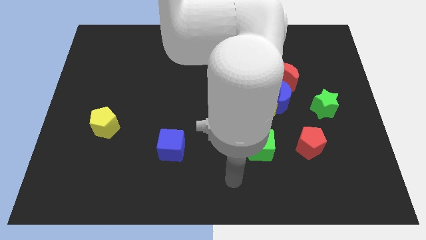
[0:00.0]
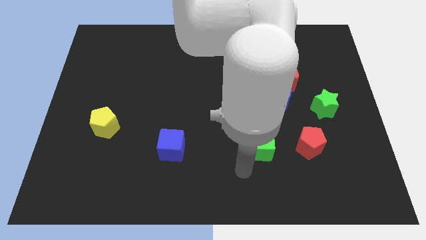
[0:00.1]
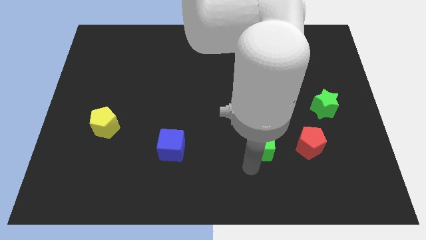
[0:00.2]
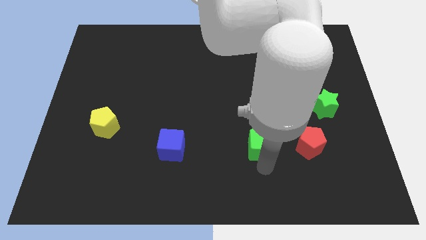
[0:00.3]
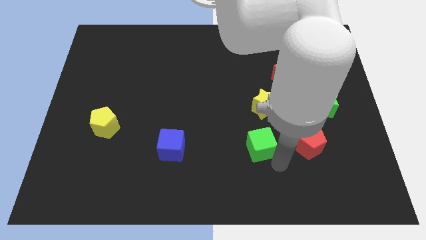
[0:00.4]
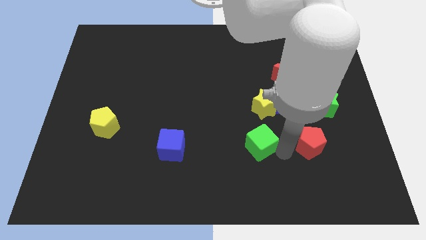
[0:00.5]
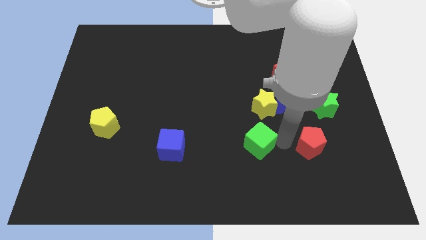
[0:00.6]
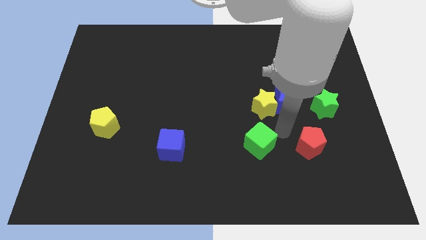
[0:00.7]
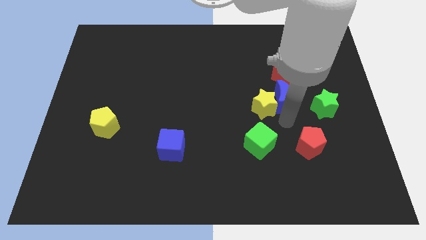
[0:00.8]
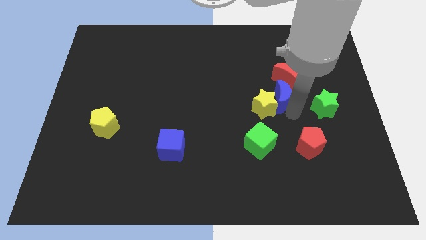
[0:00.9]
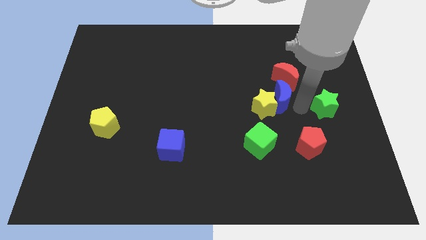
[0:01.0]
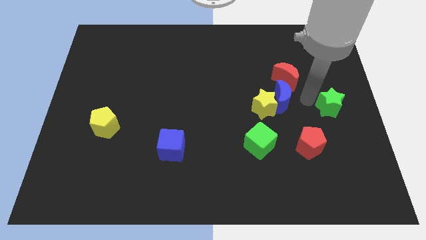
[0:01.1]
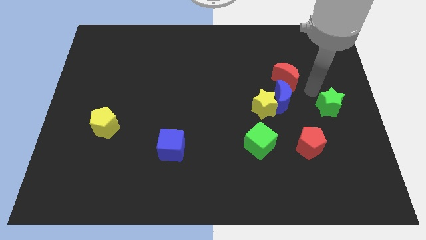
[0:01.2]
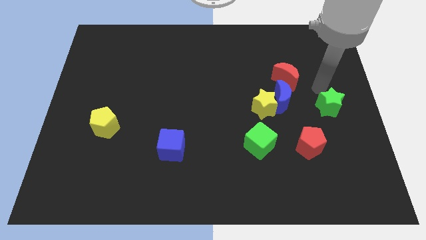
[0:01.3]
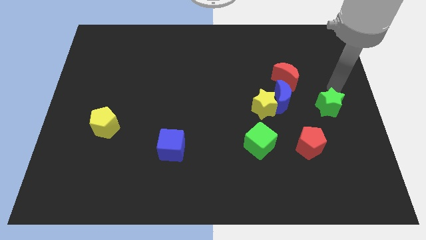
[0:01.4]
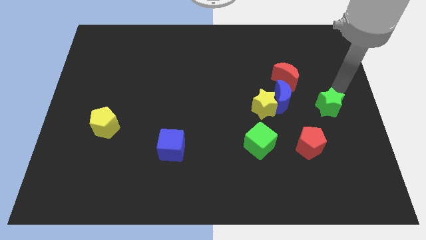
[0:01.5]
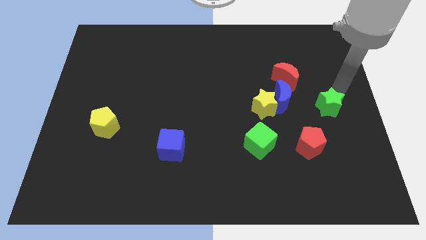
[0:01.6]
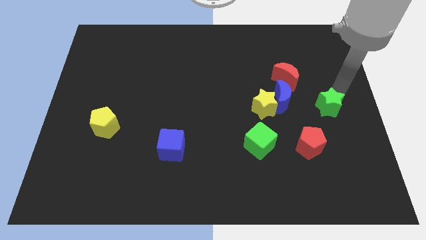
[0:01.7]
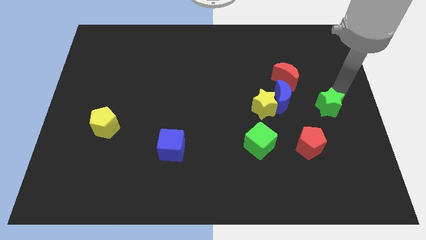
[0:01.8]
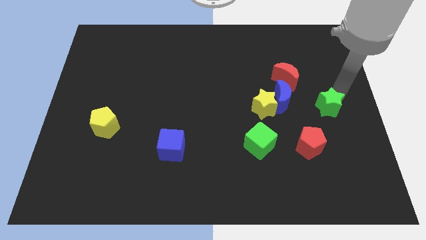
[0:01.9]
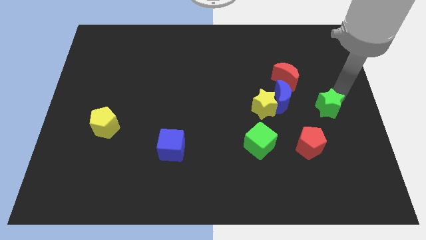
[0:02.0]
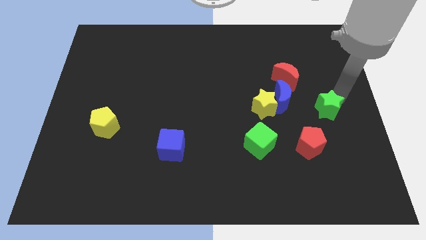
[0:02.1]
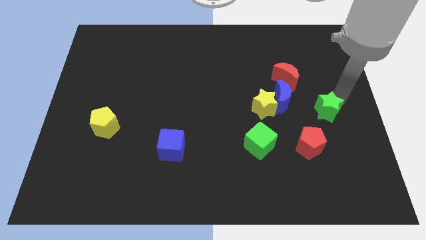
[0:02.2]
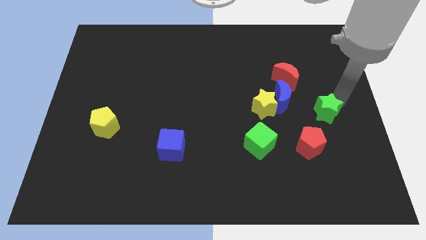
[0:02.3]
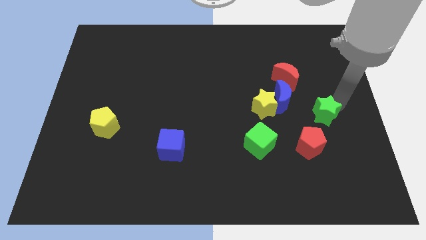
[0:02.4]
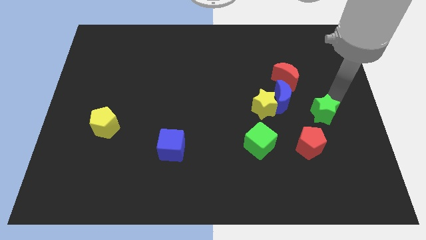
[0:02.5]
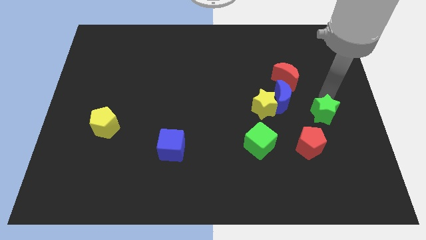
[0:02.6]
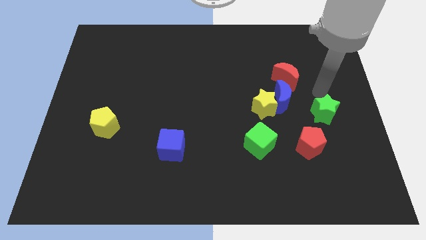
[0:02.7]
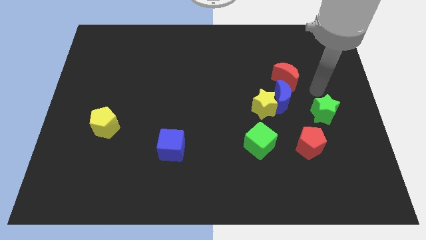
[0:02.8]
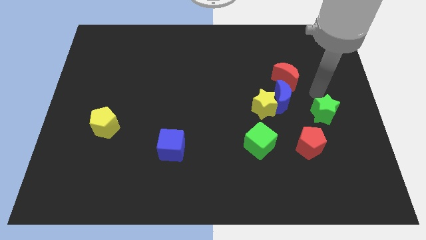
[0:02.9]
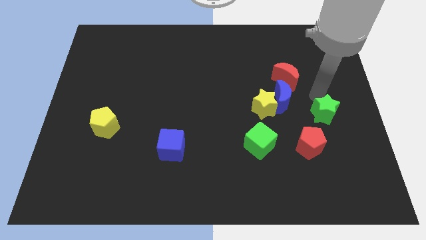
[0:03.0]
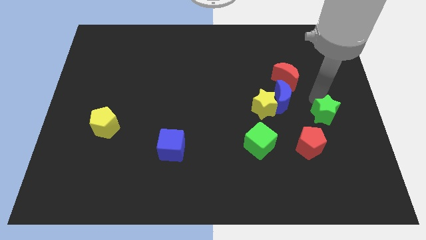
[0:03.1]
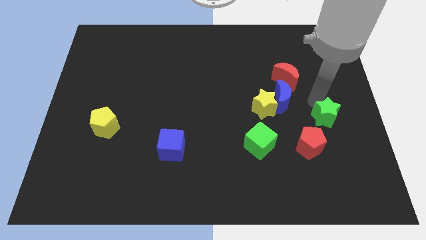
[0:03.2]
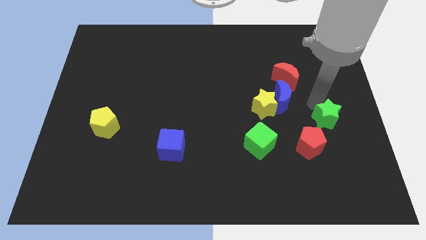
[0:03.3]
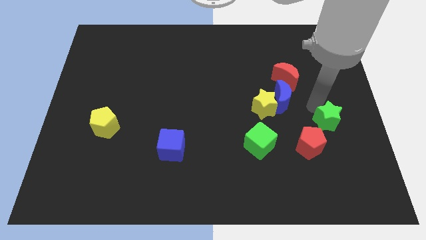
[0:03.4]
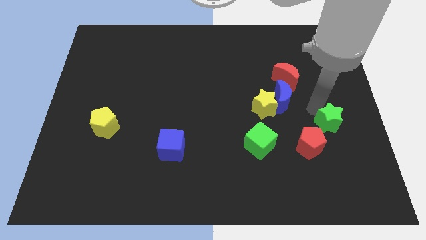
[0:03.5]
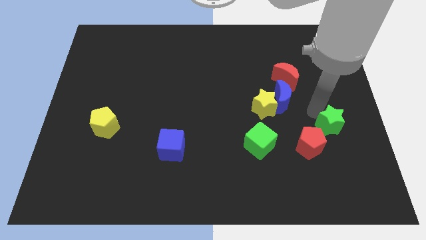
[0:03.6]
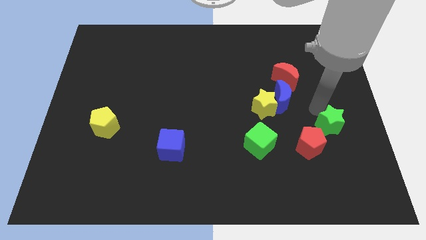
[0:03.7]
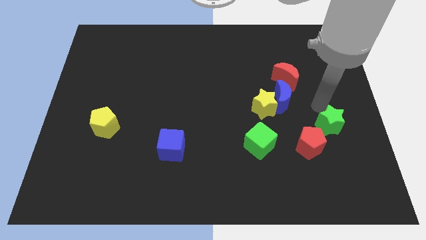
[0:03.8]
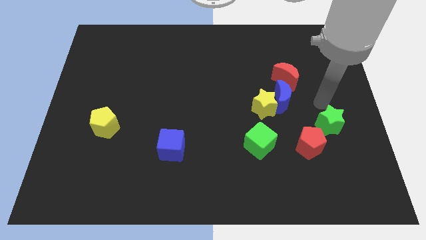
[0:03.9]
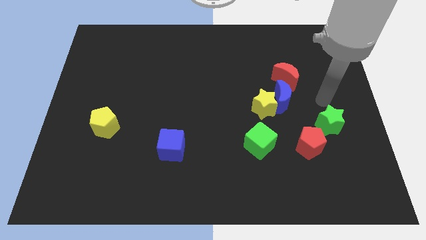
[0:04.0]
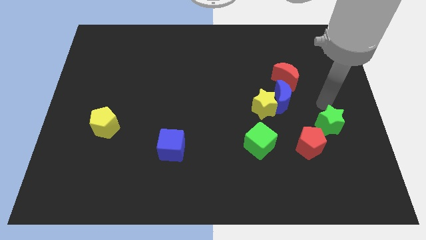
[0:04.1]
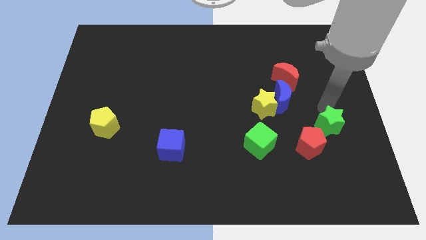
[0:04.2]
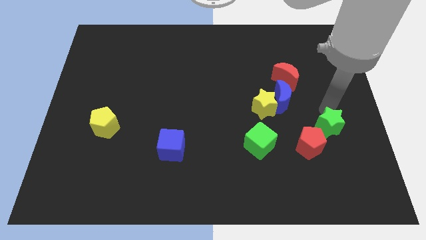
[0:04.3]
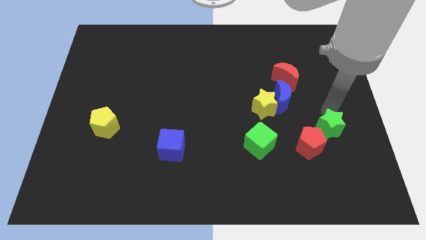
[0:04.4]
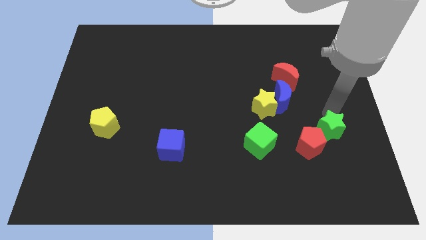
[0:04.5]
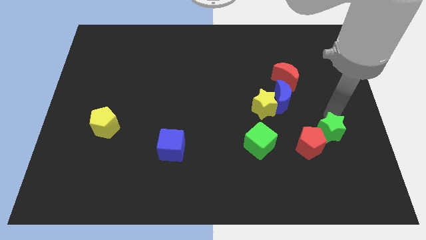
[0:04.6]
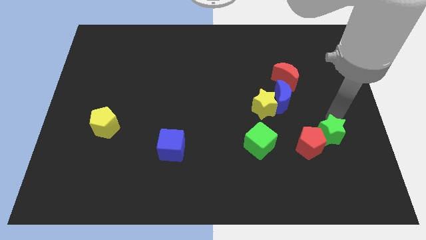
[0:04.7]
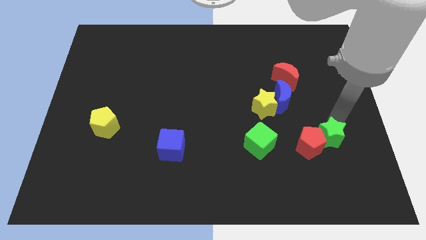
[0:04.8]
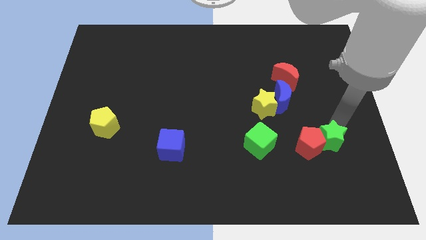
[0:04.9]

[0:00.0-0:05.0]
put the green star to the bottom right of the red pentagon

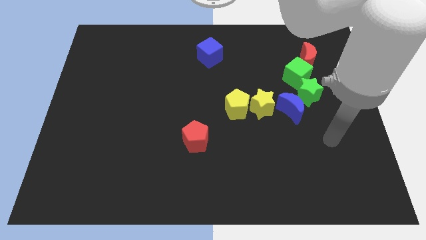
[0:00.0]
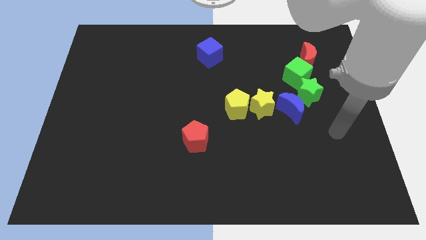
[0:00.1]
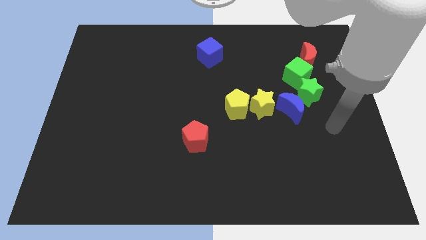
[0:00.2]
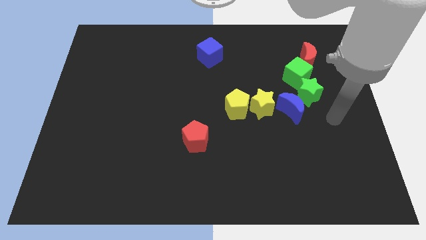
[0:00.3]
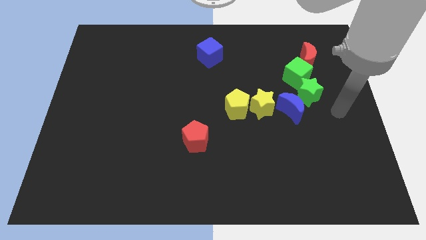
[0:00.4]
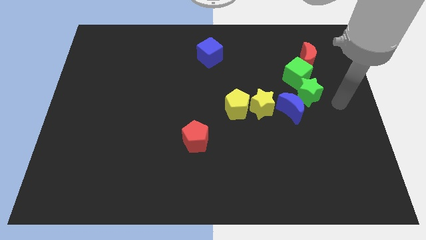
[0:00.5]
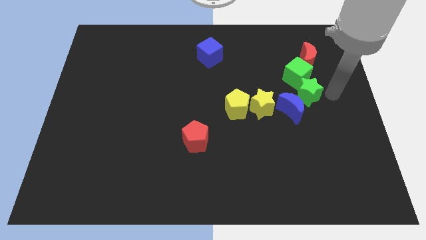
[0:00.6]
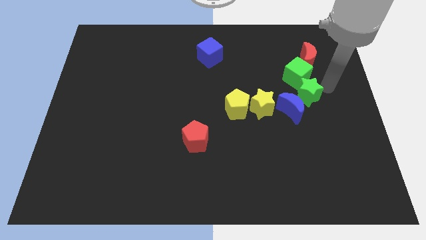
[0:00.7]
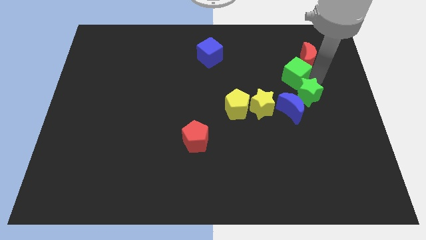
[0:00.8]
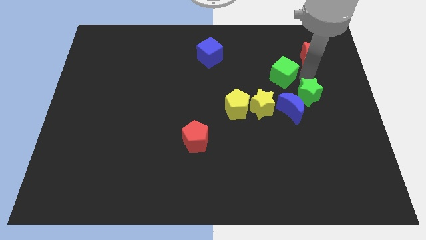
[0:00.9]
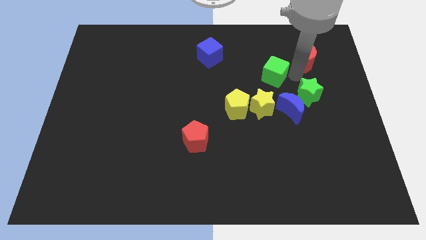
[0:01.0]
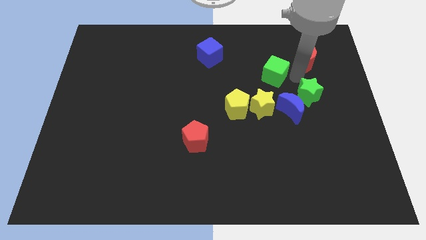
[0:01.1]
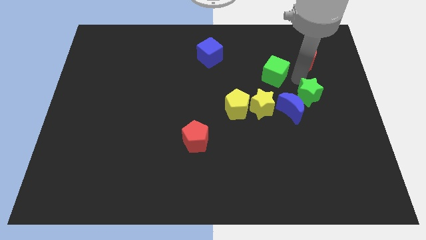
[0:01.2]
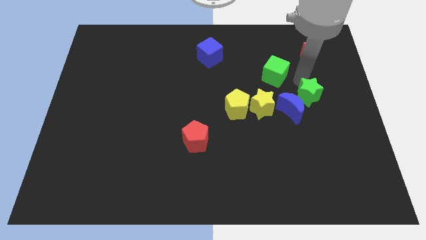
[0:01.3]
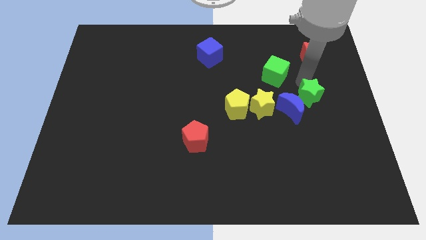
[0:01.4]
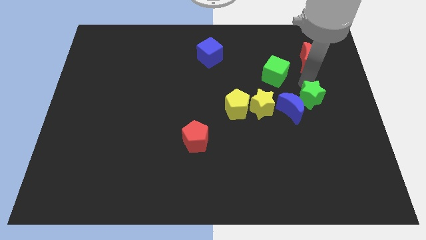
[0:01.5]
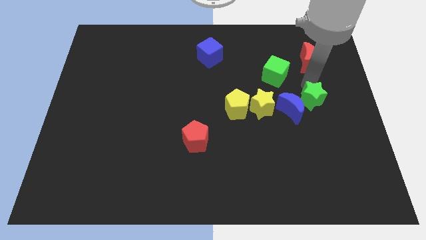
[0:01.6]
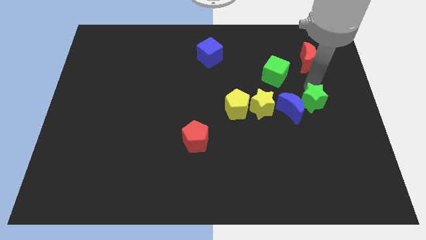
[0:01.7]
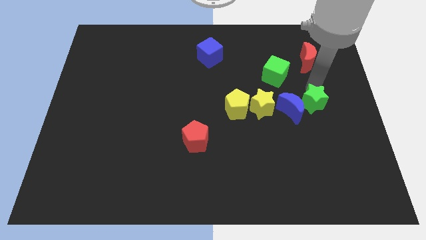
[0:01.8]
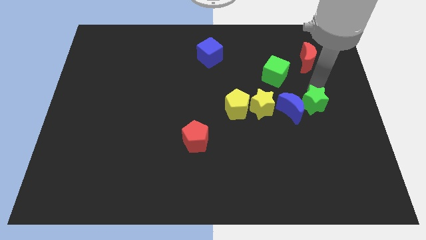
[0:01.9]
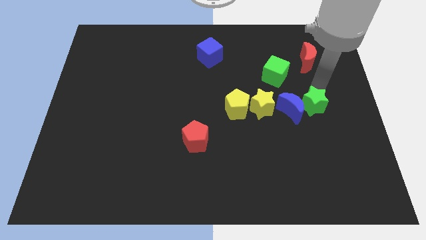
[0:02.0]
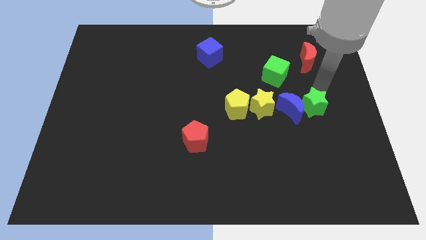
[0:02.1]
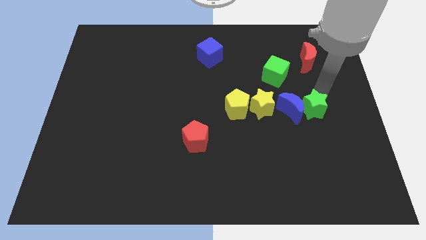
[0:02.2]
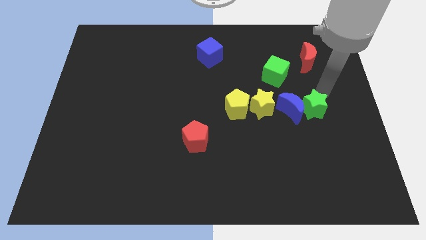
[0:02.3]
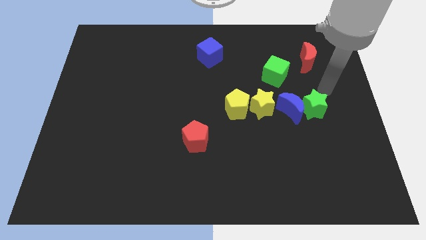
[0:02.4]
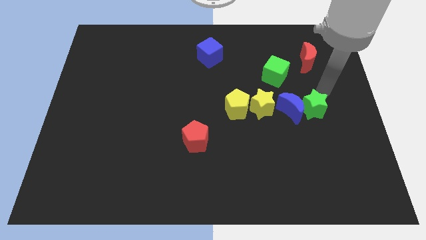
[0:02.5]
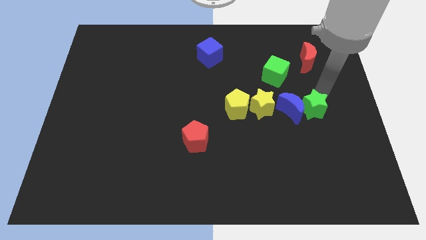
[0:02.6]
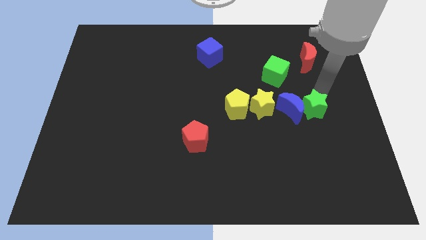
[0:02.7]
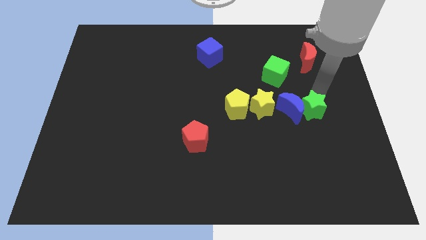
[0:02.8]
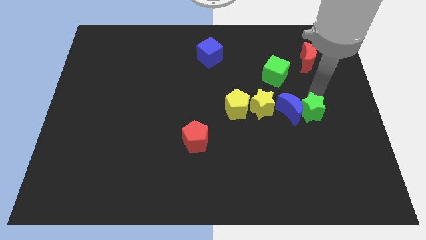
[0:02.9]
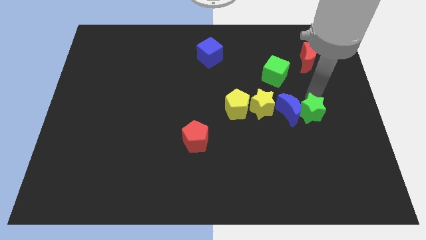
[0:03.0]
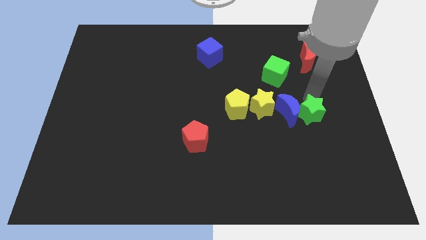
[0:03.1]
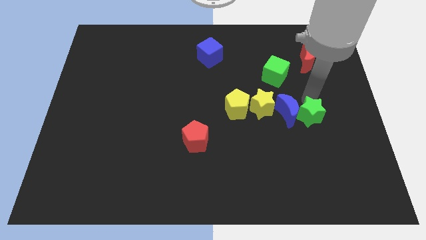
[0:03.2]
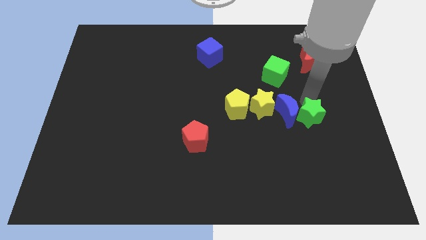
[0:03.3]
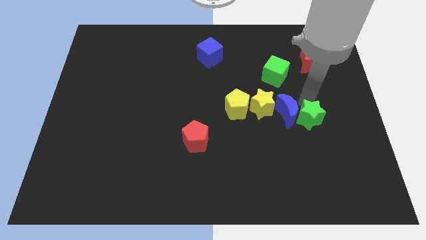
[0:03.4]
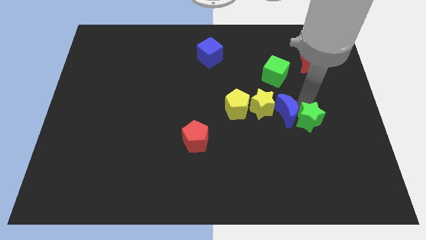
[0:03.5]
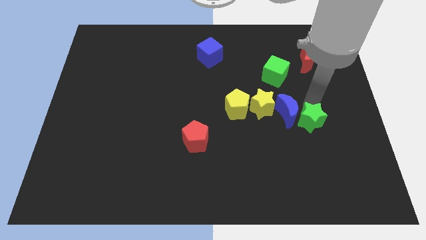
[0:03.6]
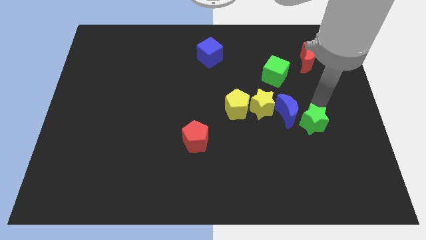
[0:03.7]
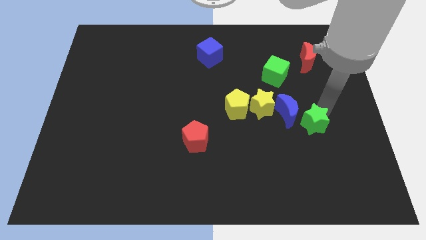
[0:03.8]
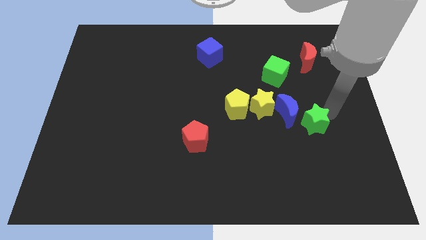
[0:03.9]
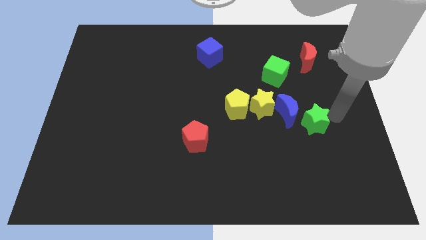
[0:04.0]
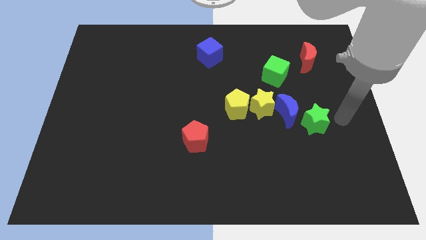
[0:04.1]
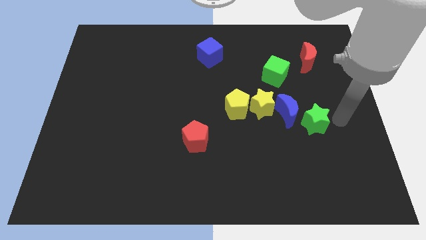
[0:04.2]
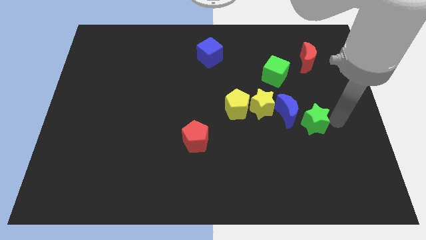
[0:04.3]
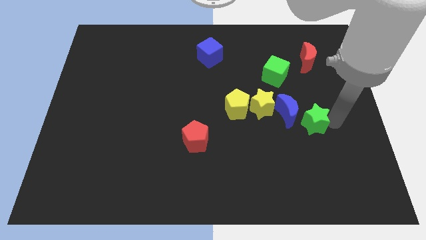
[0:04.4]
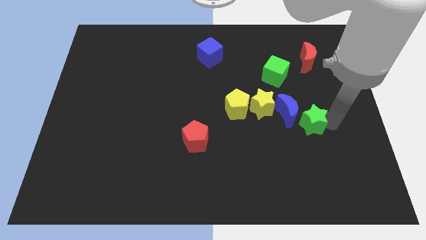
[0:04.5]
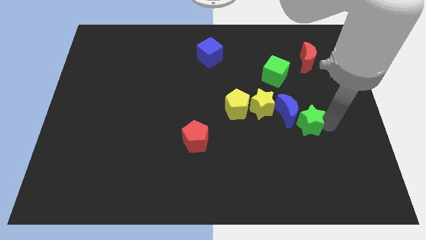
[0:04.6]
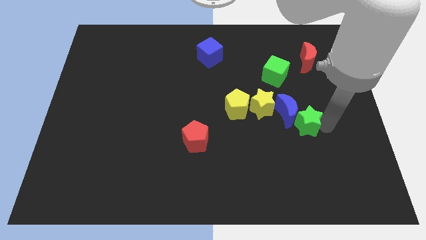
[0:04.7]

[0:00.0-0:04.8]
move the green star to the bottom right of the yellow star
